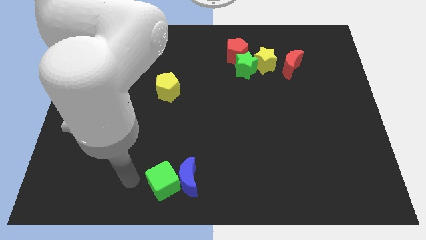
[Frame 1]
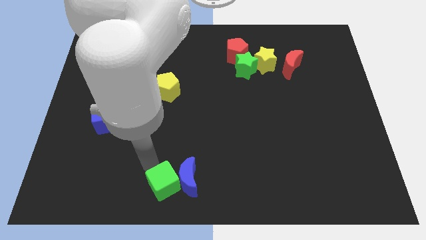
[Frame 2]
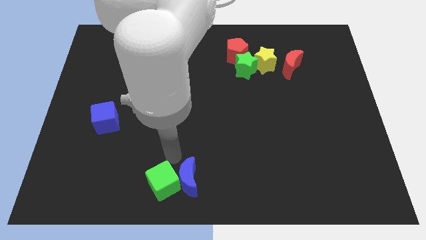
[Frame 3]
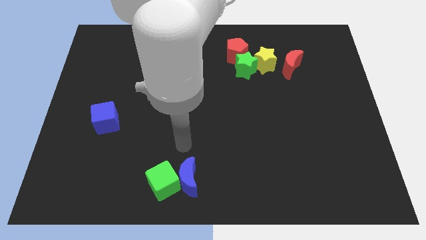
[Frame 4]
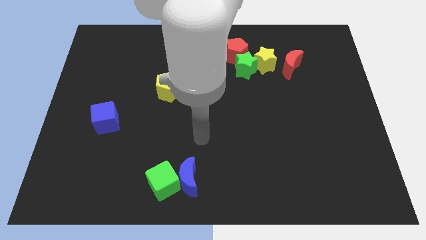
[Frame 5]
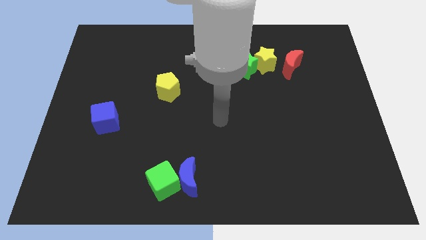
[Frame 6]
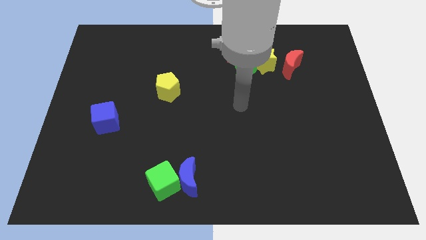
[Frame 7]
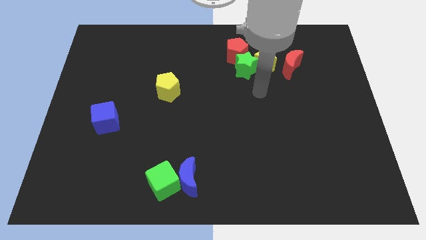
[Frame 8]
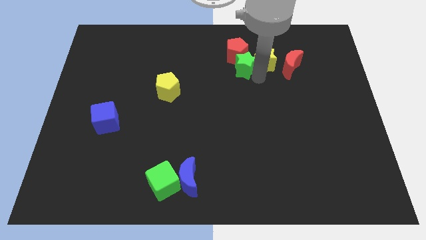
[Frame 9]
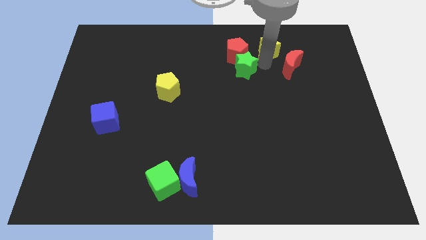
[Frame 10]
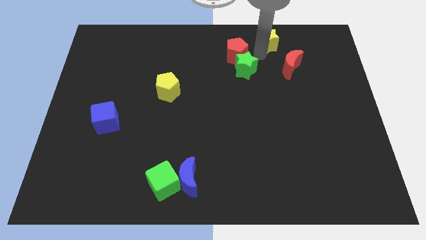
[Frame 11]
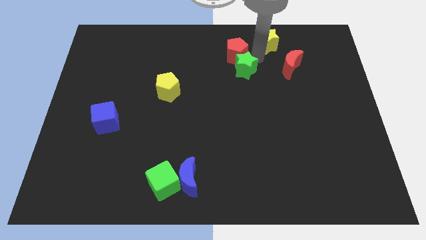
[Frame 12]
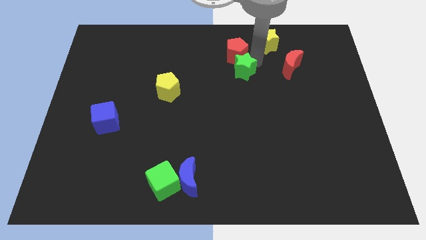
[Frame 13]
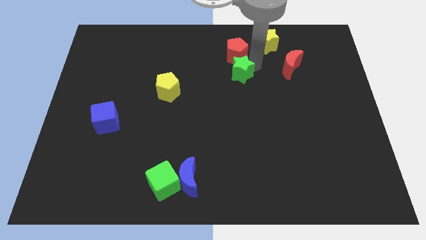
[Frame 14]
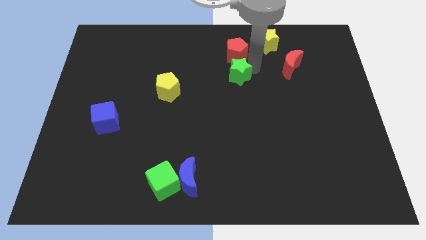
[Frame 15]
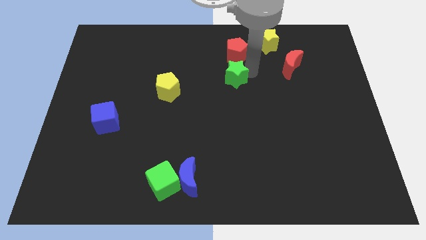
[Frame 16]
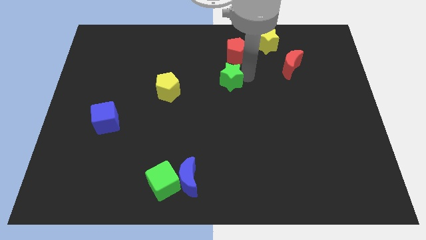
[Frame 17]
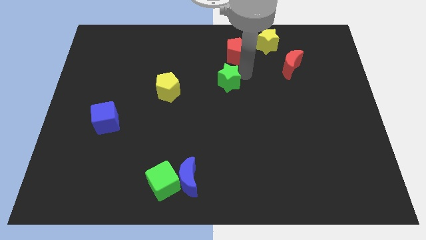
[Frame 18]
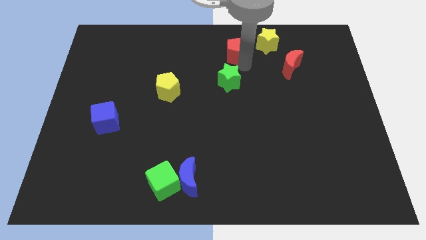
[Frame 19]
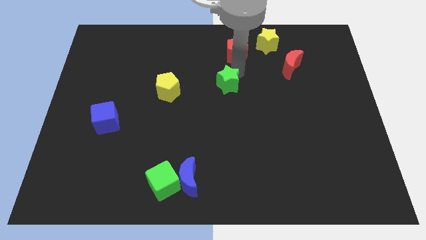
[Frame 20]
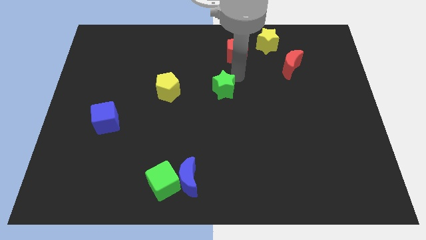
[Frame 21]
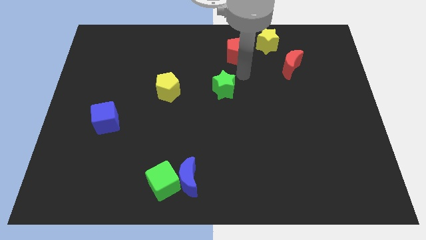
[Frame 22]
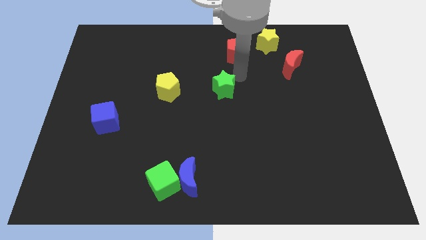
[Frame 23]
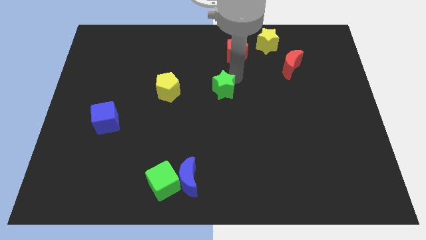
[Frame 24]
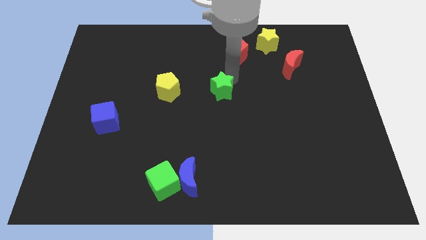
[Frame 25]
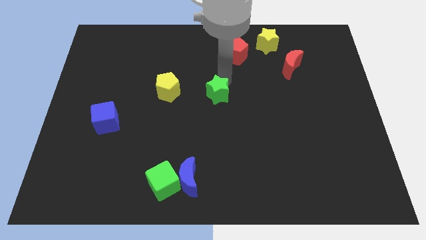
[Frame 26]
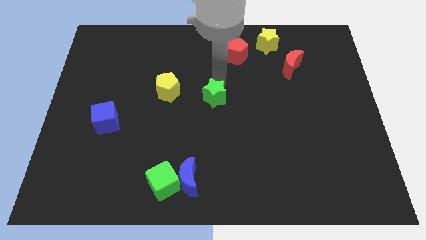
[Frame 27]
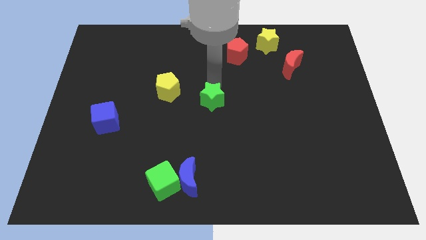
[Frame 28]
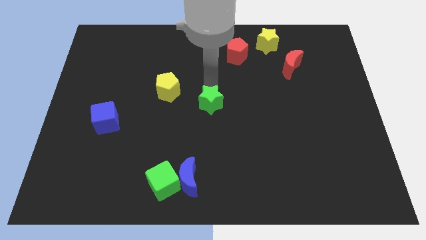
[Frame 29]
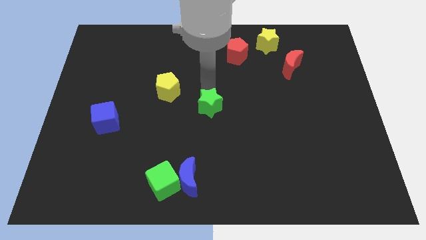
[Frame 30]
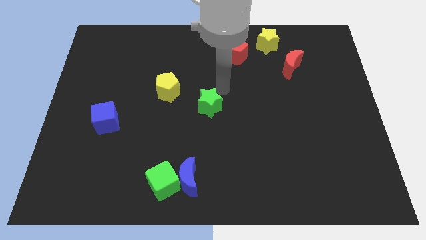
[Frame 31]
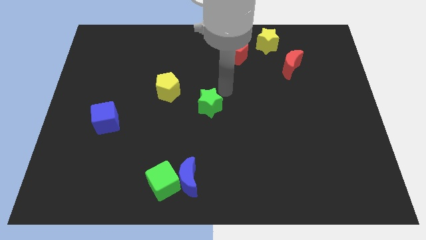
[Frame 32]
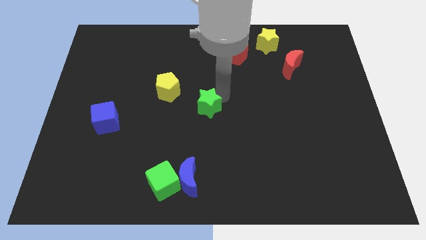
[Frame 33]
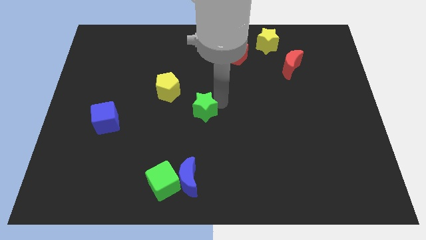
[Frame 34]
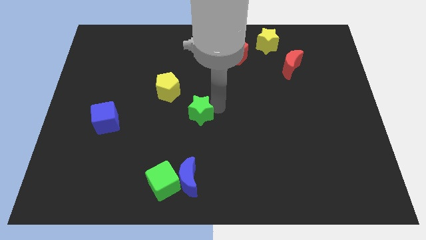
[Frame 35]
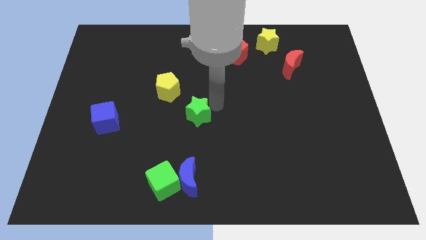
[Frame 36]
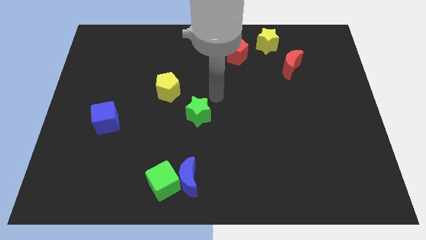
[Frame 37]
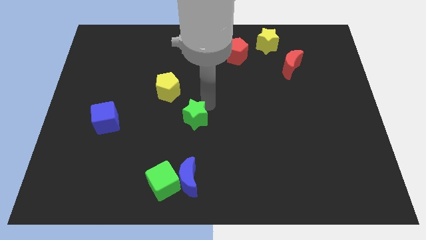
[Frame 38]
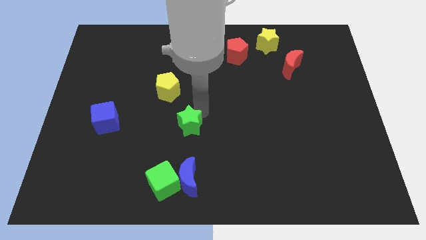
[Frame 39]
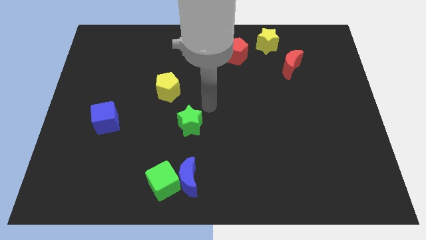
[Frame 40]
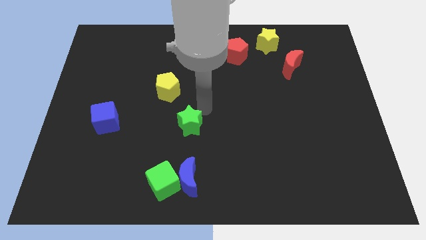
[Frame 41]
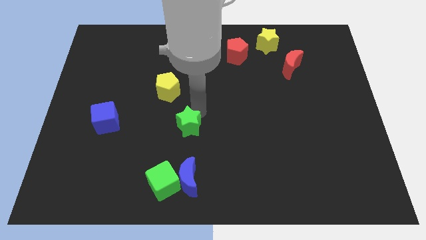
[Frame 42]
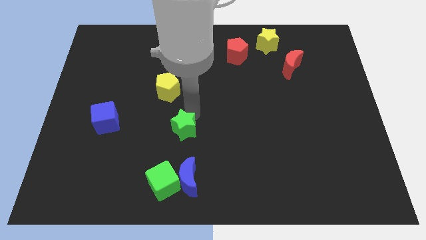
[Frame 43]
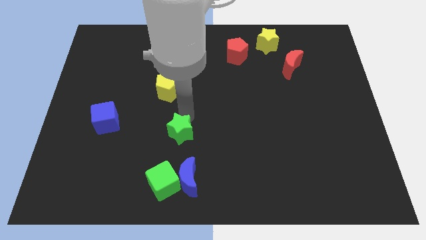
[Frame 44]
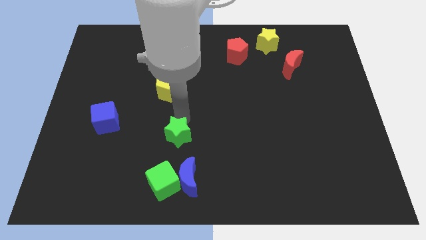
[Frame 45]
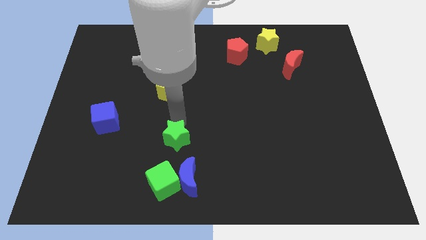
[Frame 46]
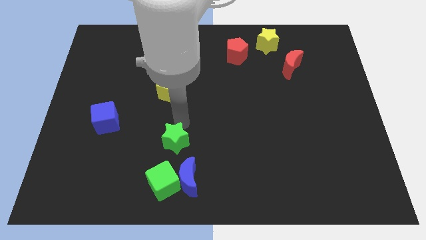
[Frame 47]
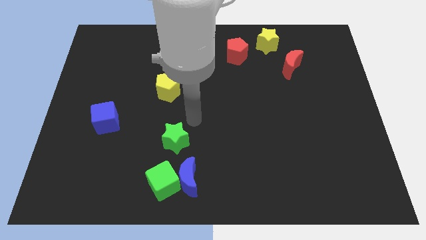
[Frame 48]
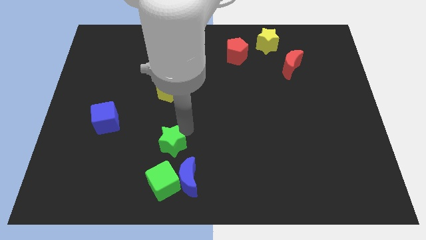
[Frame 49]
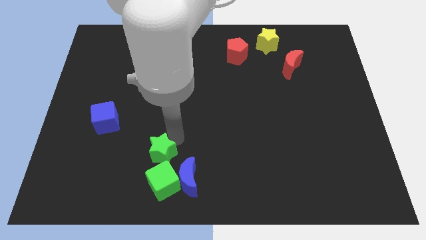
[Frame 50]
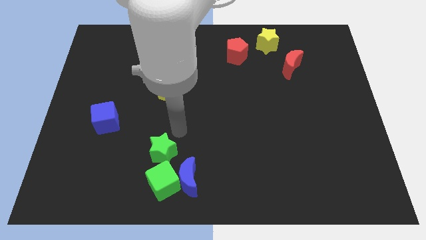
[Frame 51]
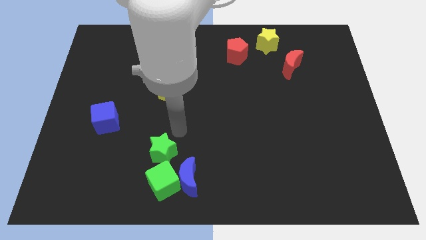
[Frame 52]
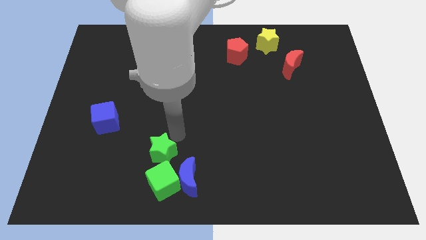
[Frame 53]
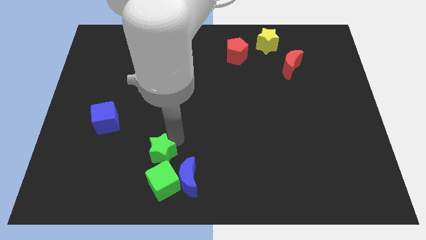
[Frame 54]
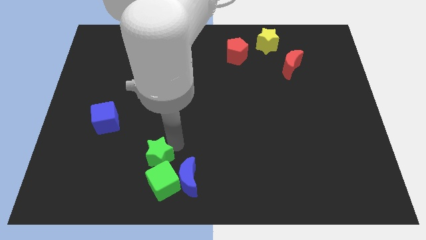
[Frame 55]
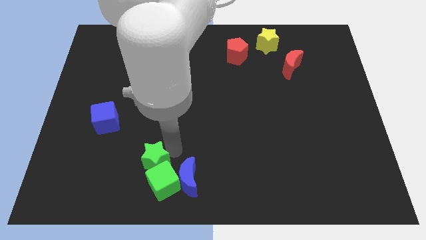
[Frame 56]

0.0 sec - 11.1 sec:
put the green star just left of the blue moon

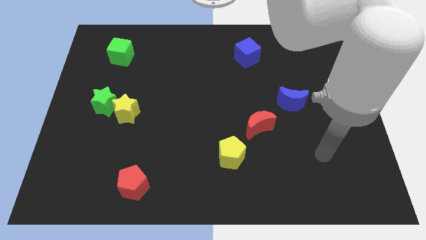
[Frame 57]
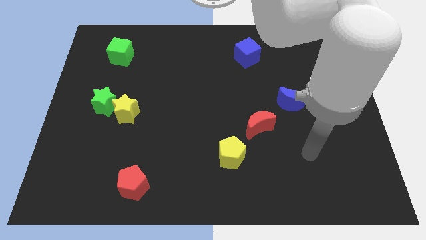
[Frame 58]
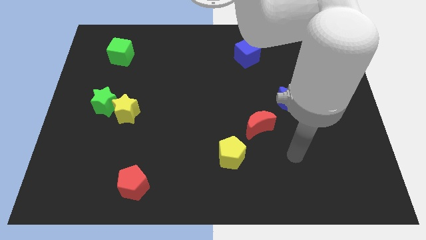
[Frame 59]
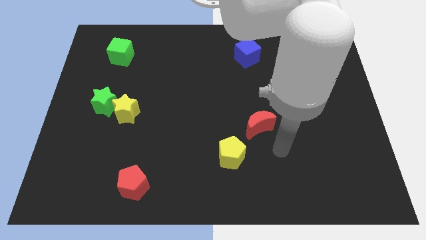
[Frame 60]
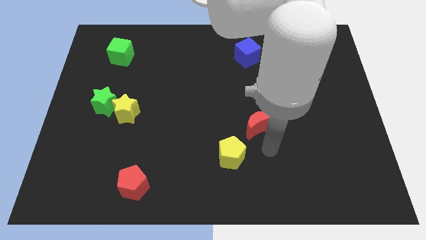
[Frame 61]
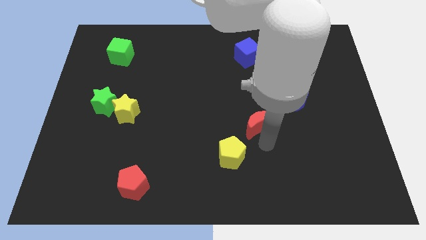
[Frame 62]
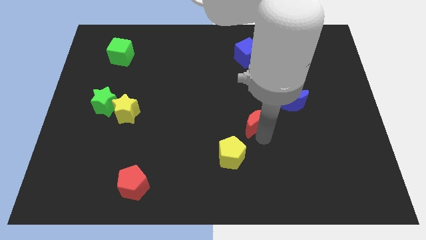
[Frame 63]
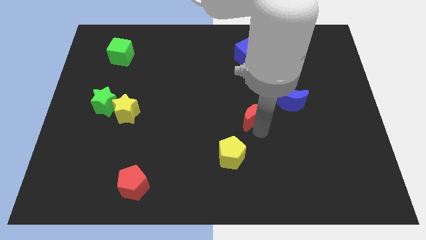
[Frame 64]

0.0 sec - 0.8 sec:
move the red moon left of the blue moon
